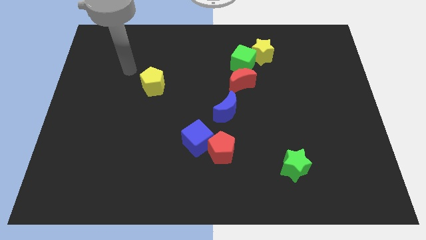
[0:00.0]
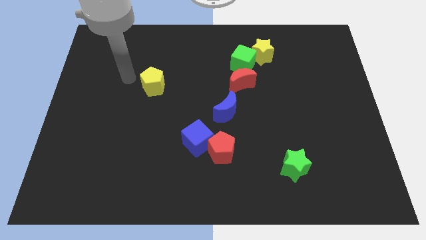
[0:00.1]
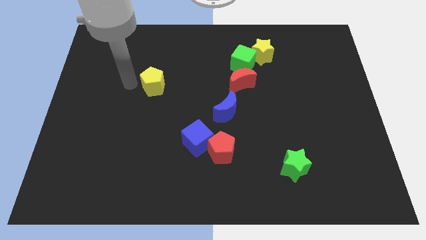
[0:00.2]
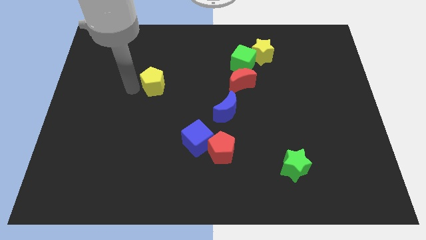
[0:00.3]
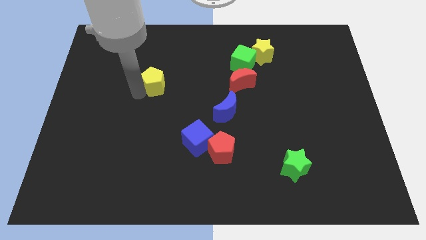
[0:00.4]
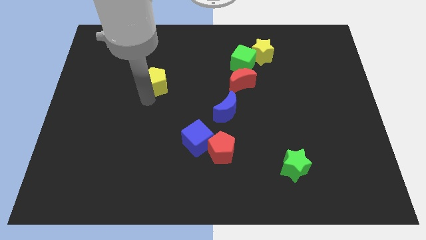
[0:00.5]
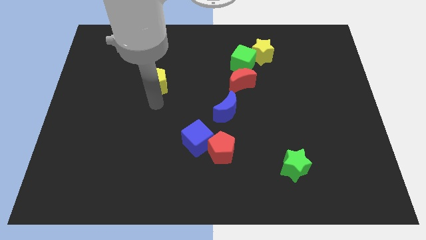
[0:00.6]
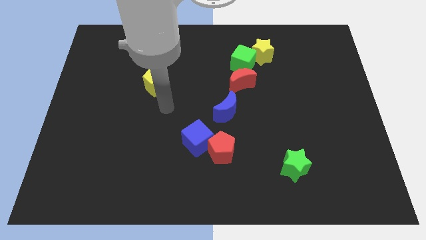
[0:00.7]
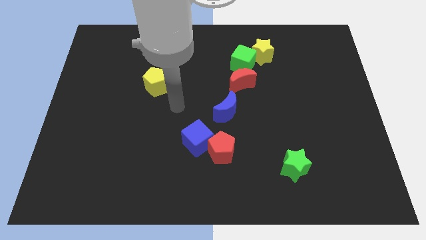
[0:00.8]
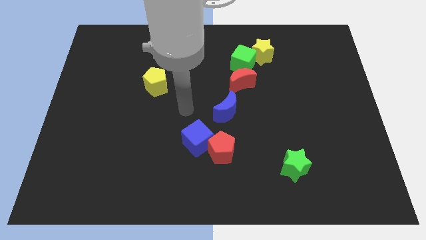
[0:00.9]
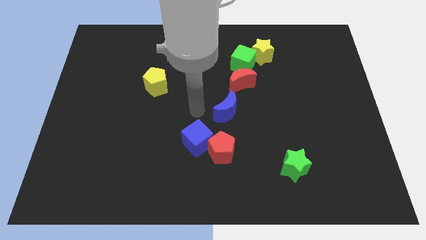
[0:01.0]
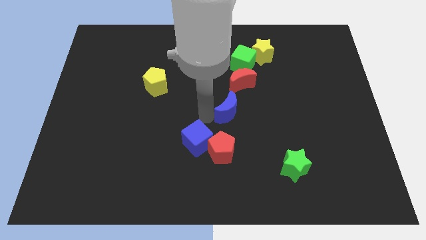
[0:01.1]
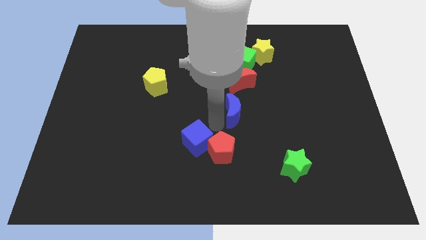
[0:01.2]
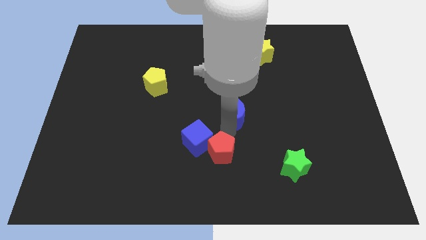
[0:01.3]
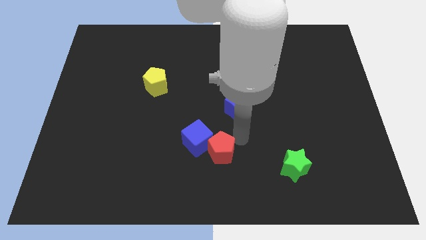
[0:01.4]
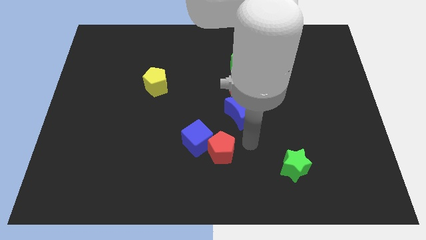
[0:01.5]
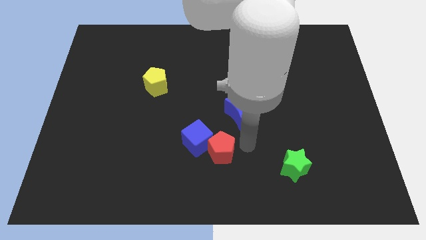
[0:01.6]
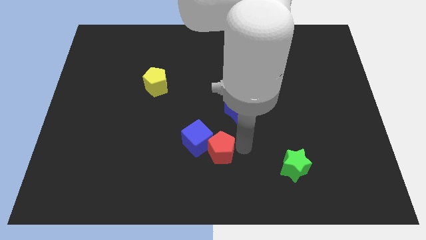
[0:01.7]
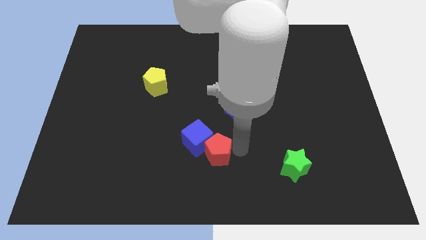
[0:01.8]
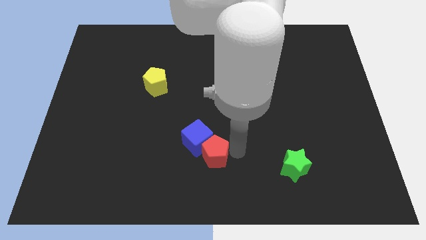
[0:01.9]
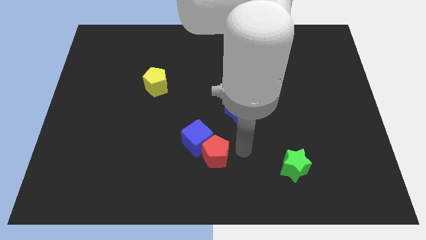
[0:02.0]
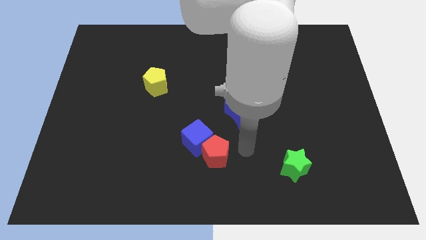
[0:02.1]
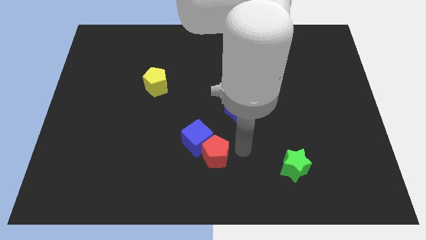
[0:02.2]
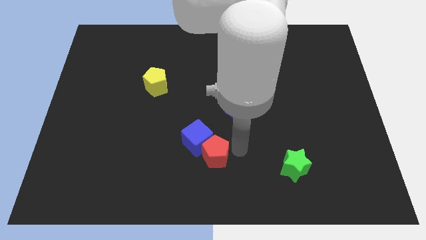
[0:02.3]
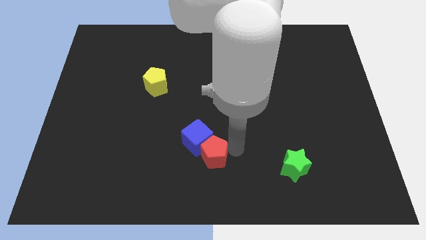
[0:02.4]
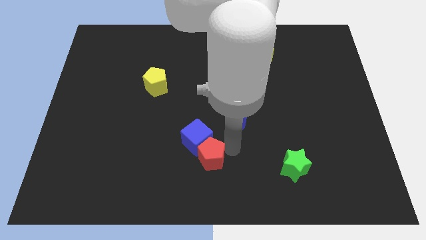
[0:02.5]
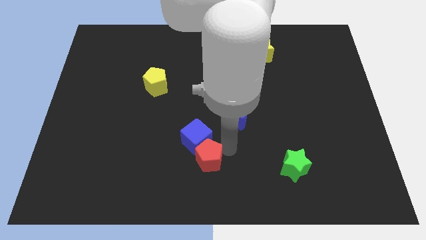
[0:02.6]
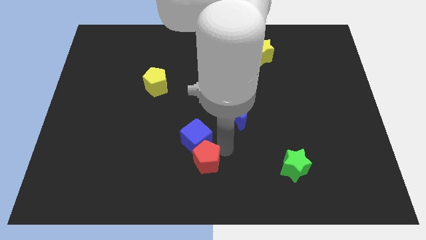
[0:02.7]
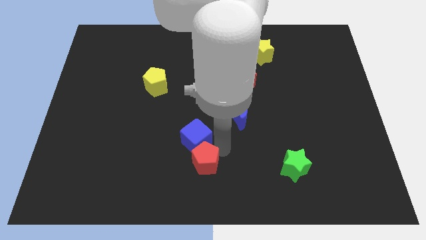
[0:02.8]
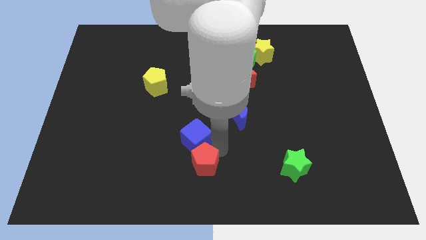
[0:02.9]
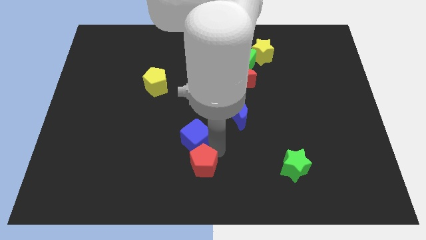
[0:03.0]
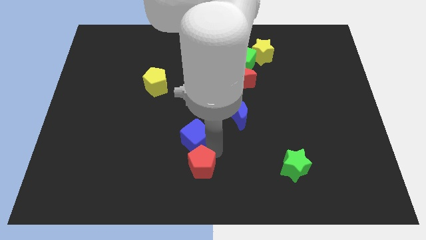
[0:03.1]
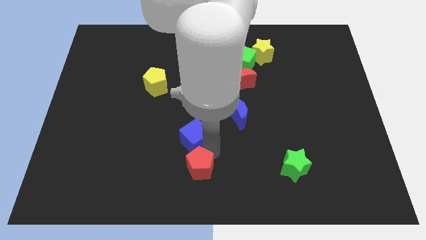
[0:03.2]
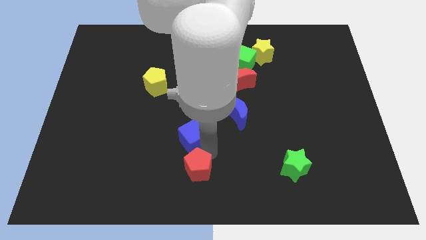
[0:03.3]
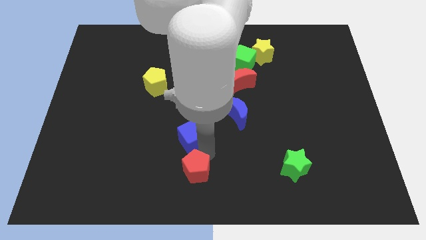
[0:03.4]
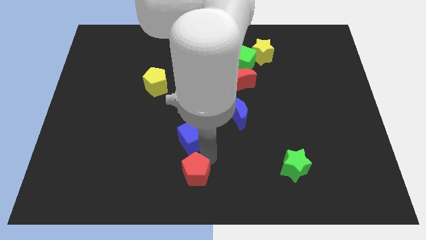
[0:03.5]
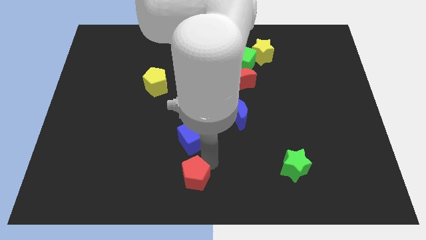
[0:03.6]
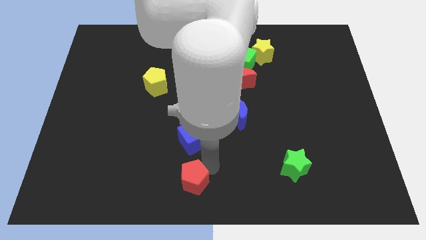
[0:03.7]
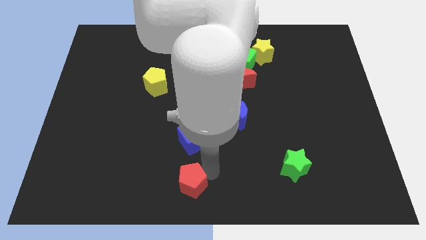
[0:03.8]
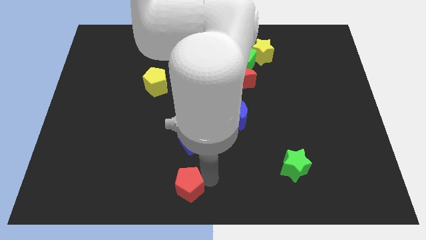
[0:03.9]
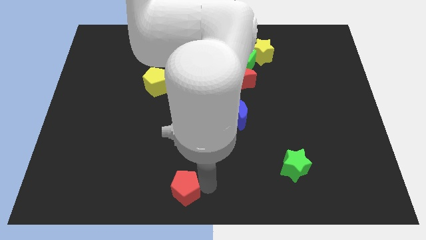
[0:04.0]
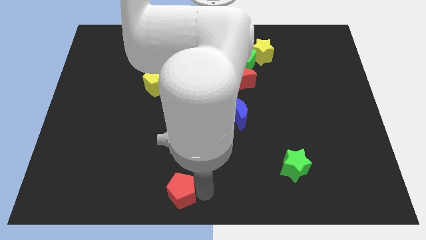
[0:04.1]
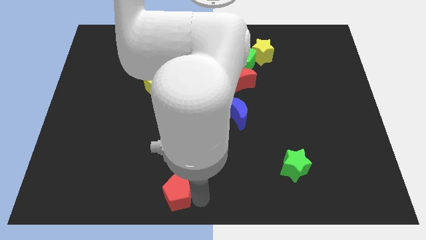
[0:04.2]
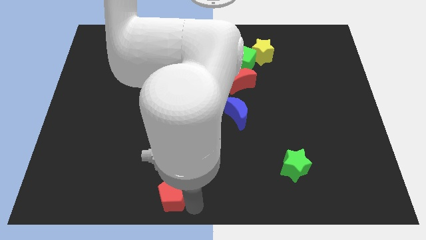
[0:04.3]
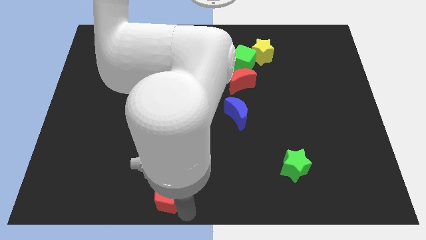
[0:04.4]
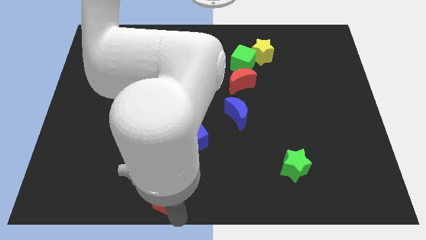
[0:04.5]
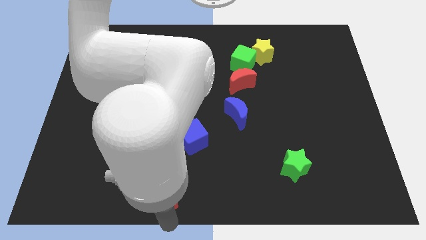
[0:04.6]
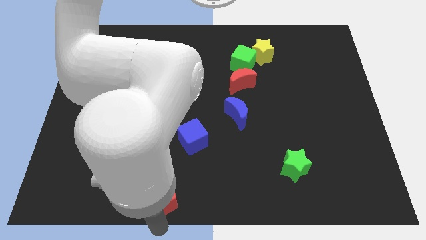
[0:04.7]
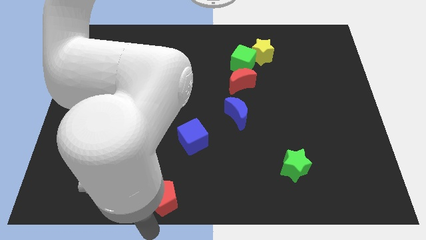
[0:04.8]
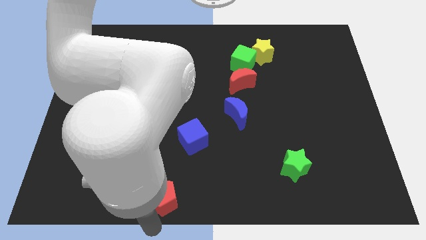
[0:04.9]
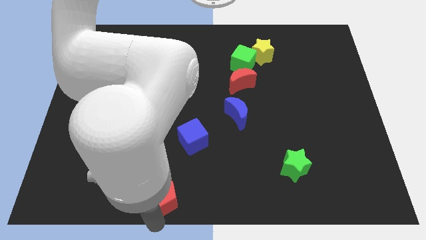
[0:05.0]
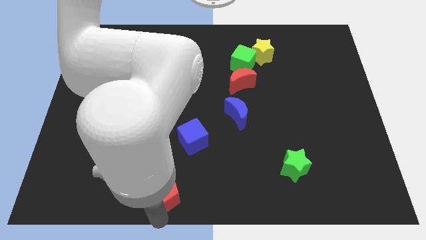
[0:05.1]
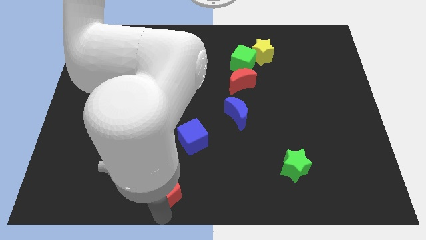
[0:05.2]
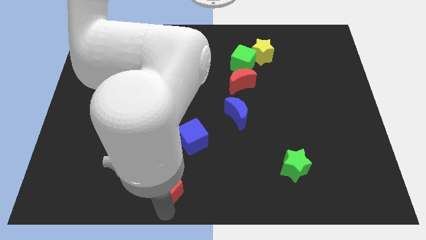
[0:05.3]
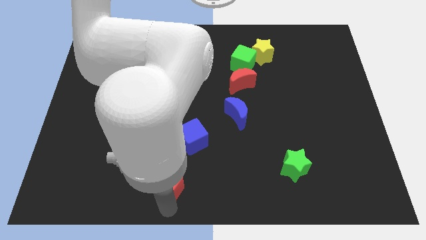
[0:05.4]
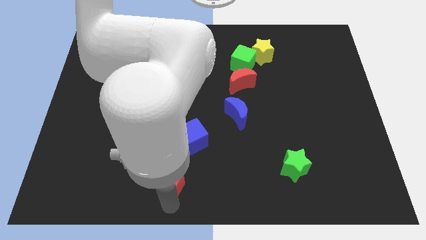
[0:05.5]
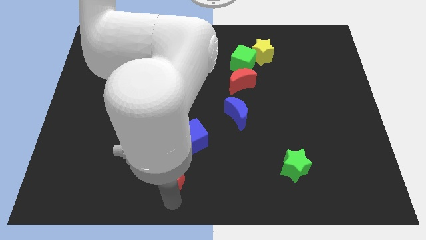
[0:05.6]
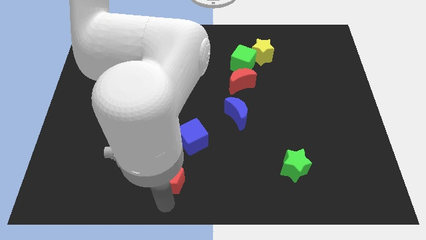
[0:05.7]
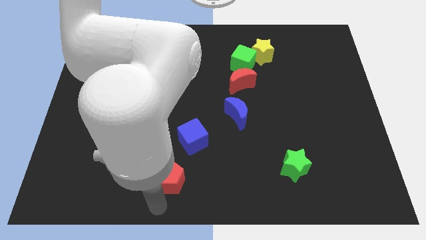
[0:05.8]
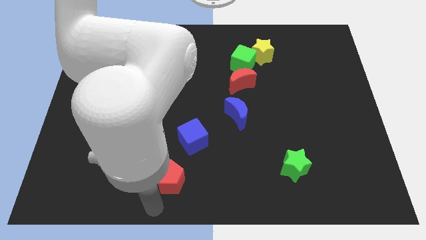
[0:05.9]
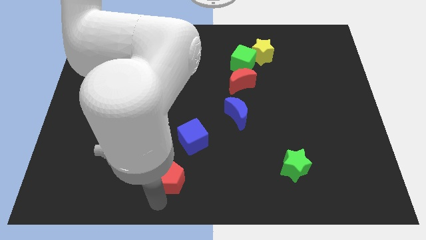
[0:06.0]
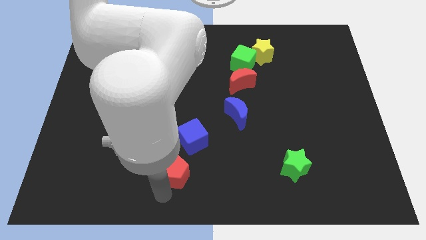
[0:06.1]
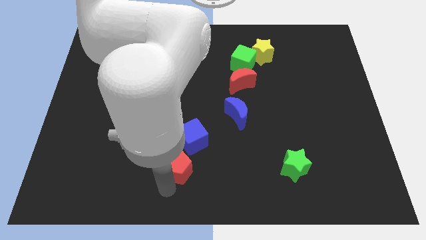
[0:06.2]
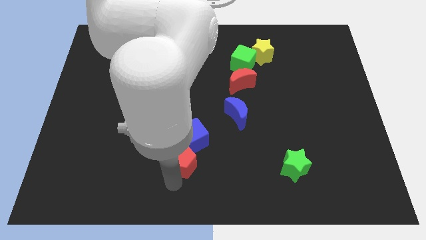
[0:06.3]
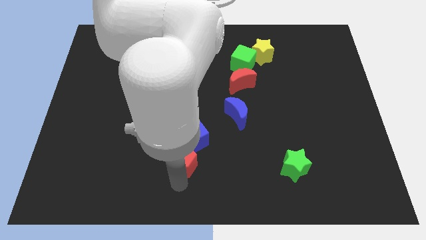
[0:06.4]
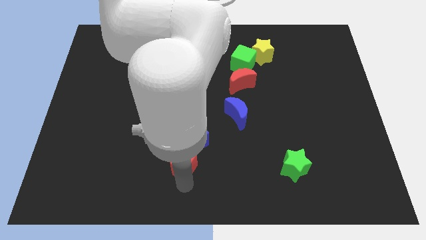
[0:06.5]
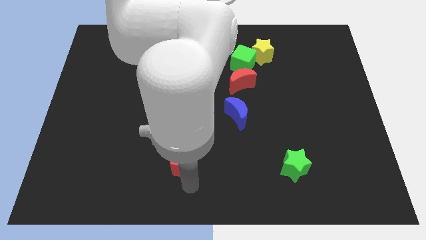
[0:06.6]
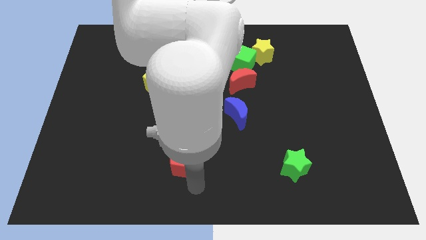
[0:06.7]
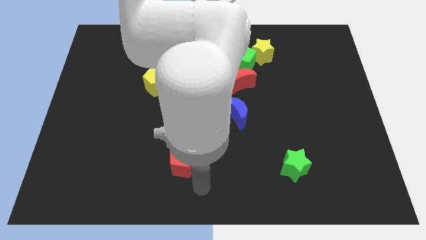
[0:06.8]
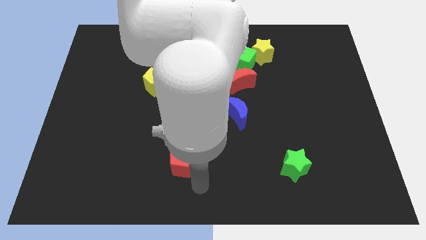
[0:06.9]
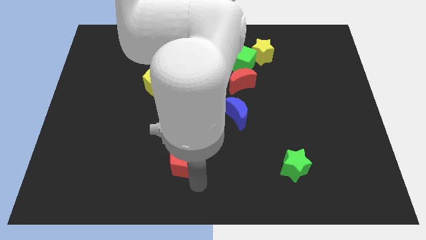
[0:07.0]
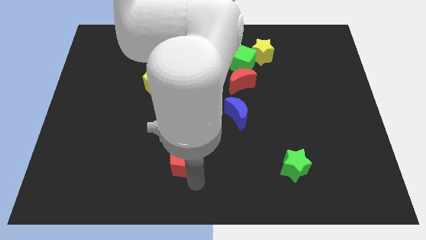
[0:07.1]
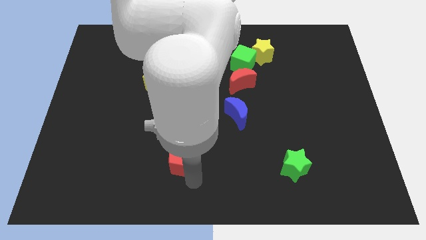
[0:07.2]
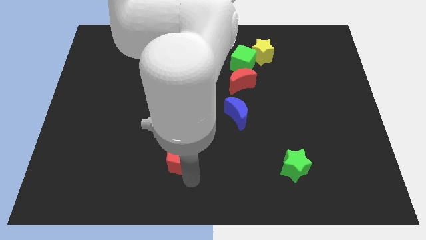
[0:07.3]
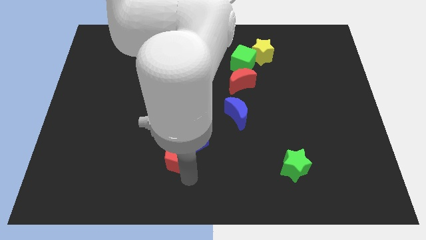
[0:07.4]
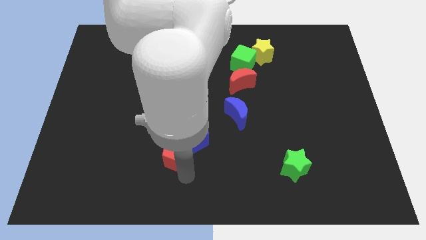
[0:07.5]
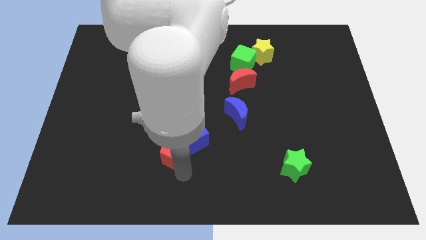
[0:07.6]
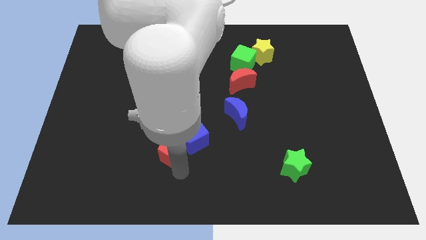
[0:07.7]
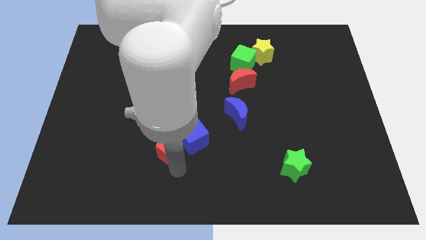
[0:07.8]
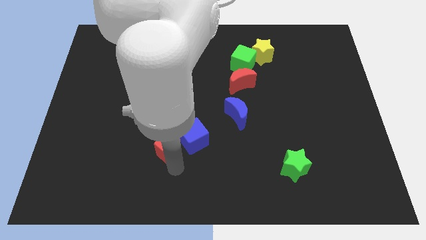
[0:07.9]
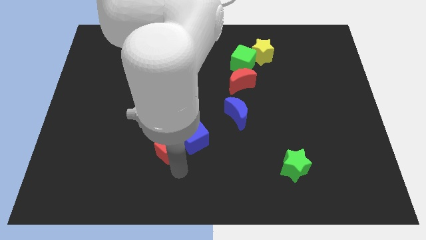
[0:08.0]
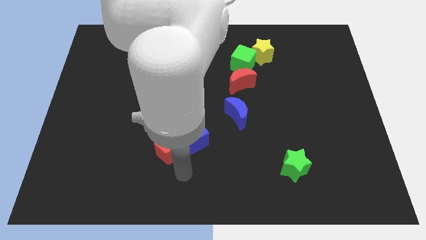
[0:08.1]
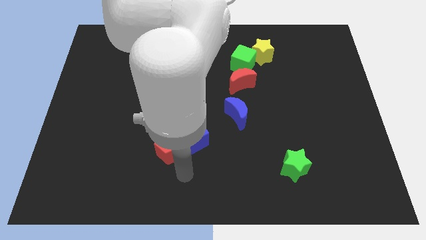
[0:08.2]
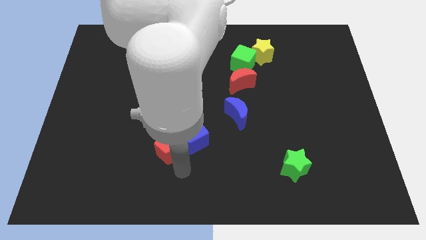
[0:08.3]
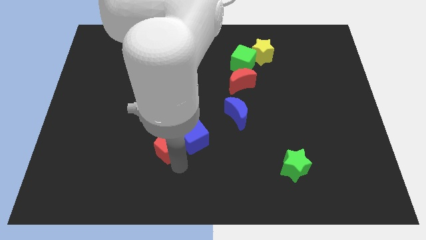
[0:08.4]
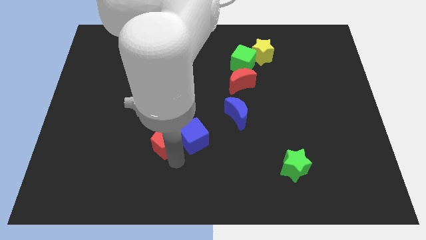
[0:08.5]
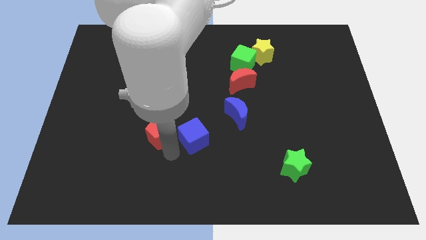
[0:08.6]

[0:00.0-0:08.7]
put the red pentagon to the bottom of the yellow pentagon
